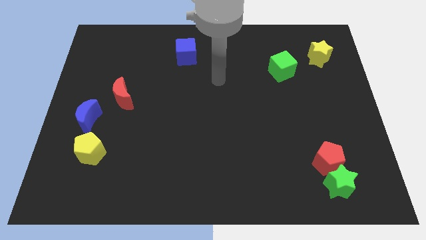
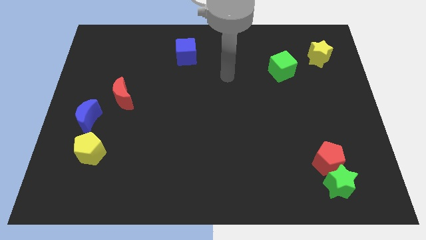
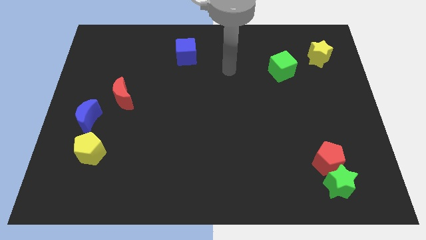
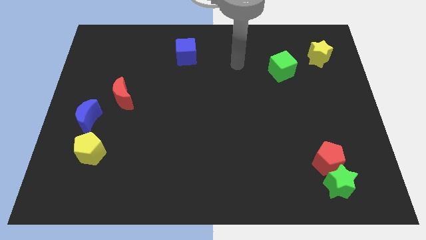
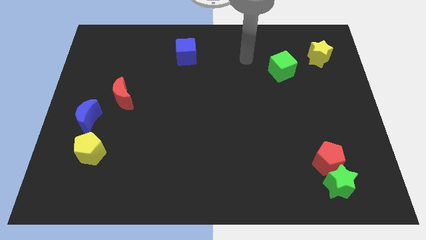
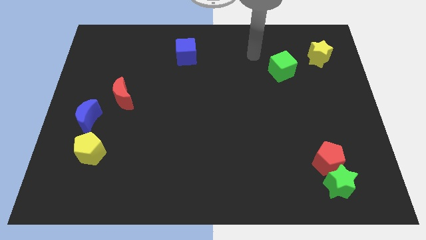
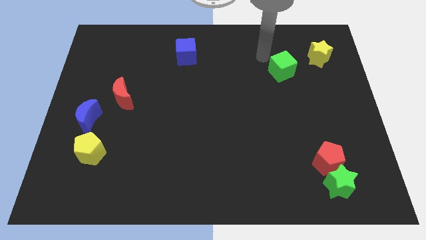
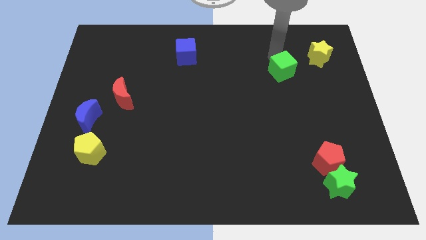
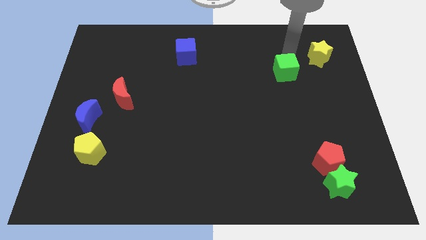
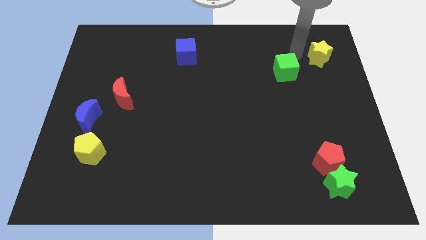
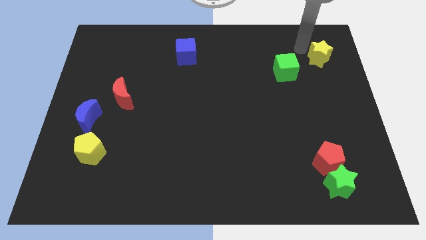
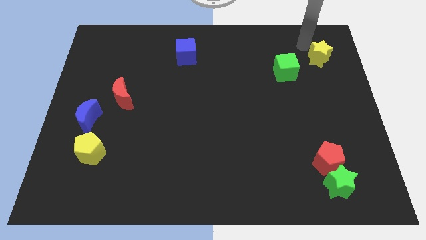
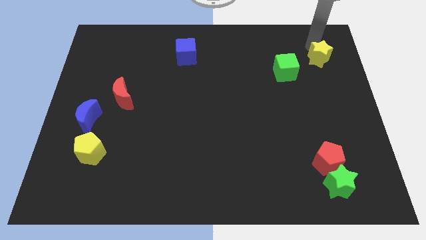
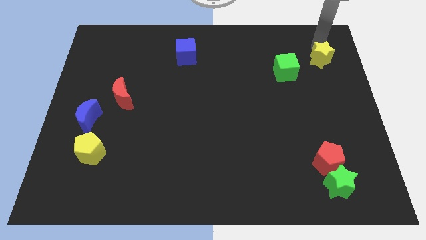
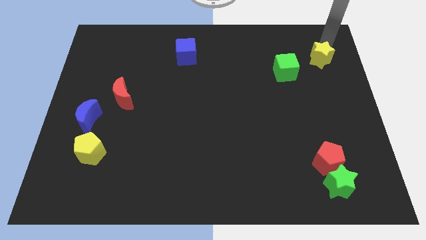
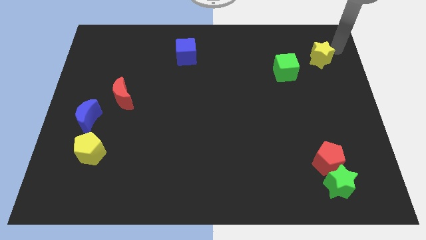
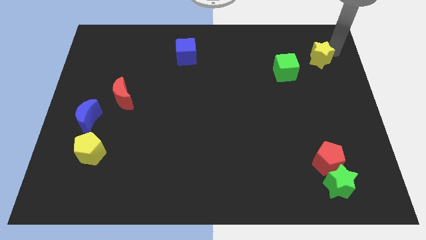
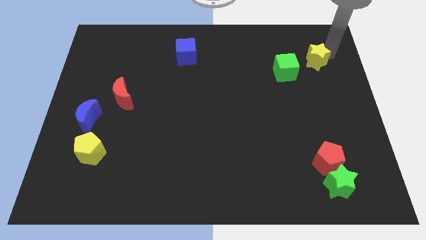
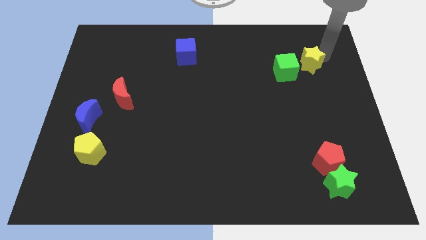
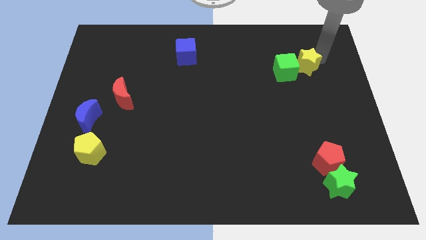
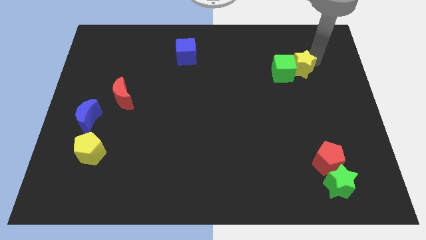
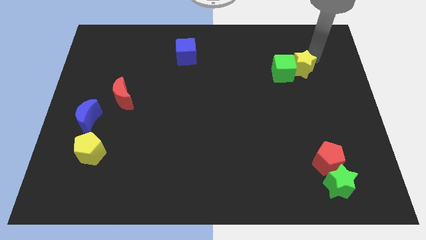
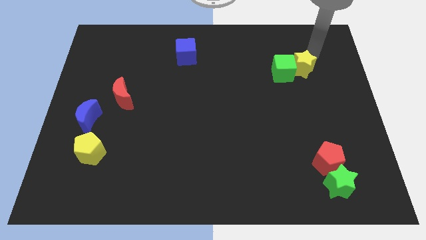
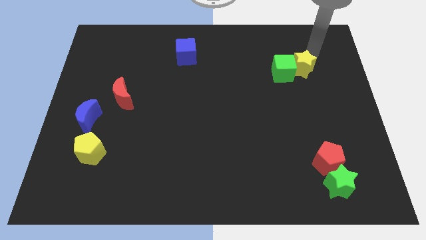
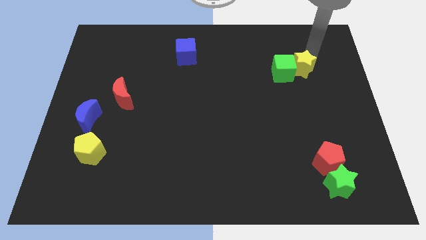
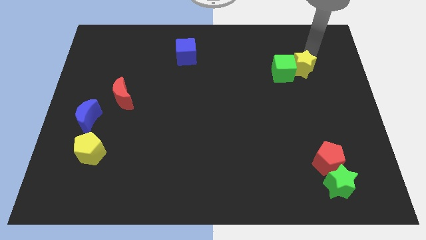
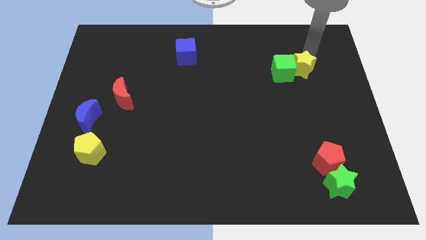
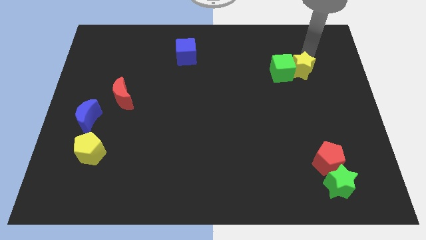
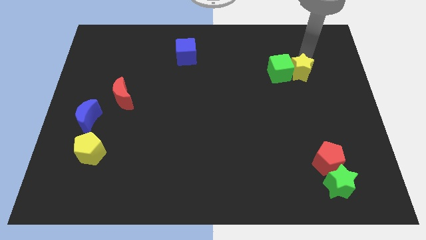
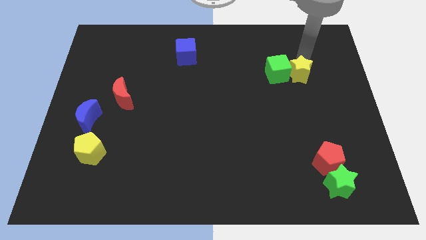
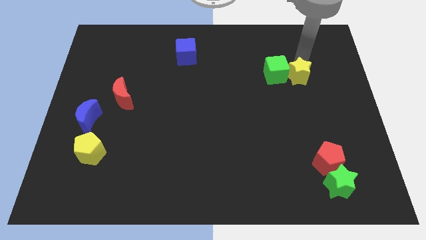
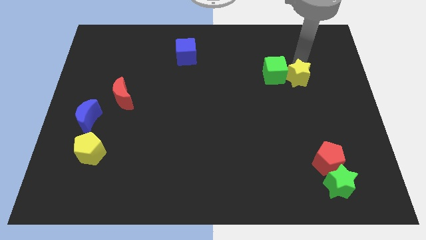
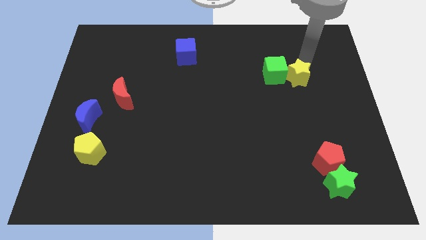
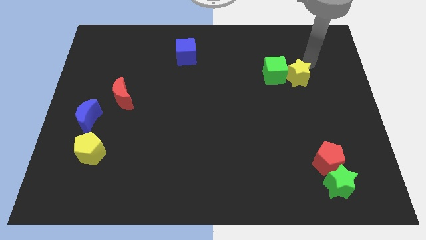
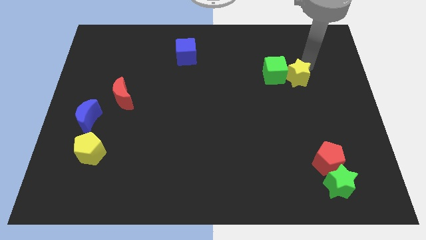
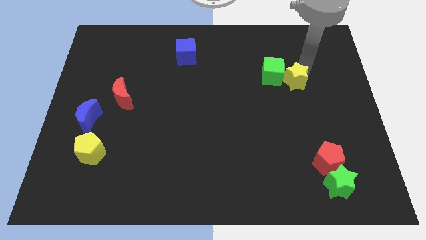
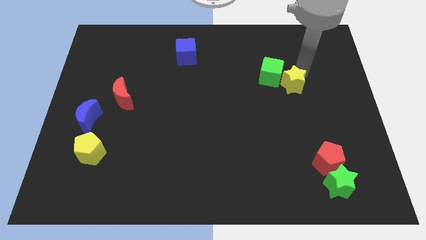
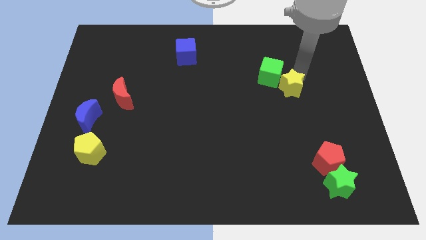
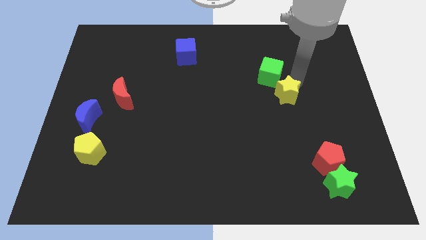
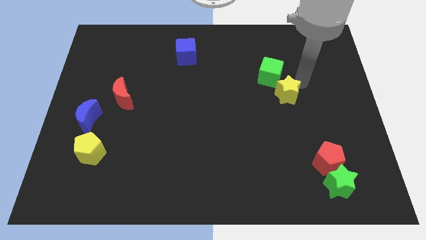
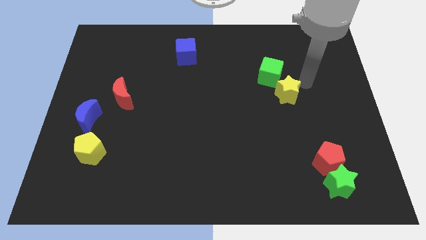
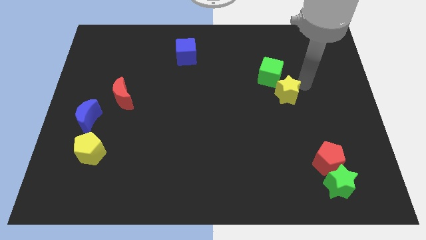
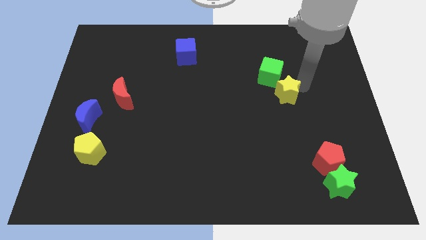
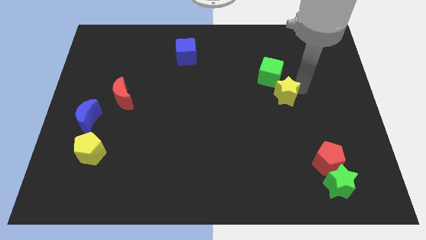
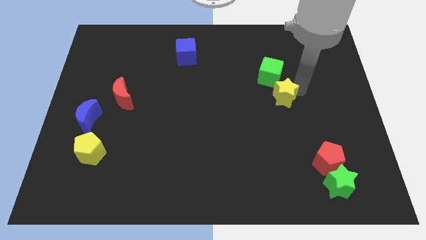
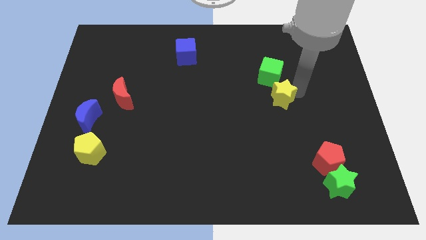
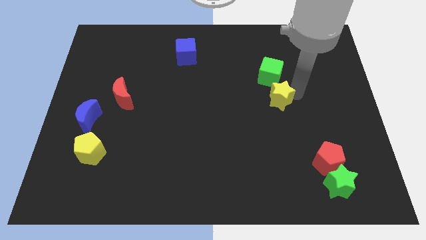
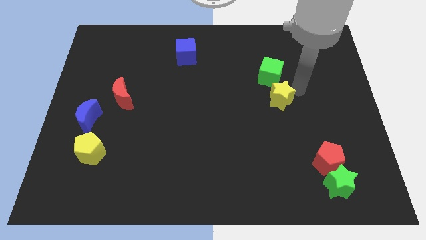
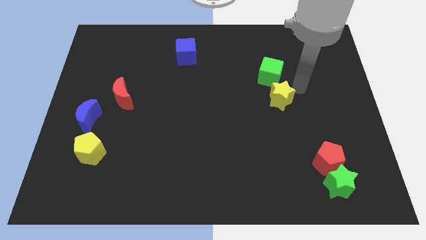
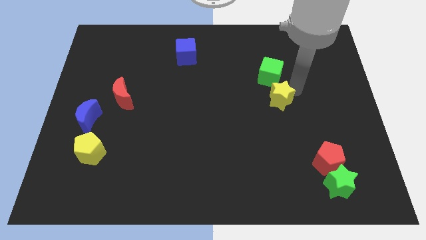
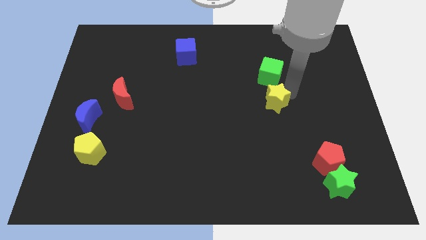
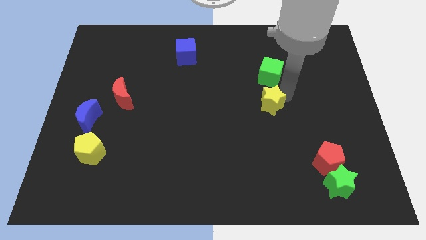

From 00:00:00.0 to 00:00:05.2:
move the yellow star down and left

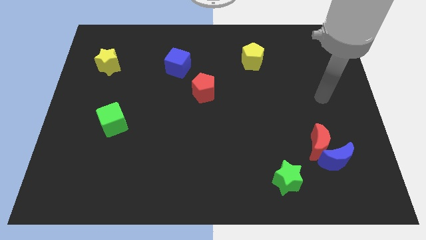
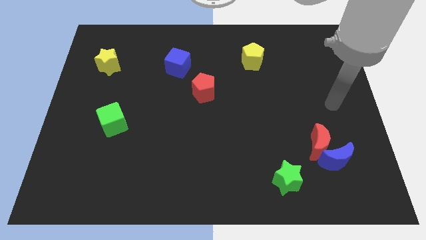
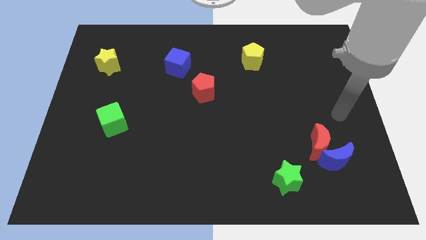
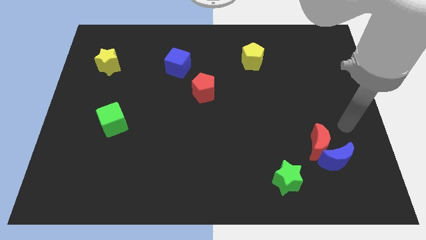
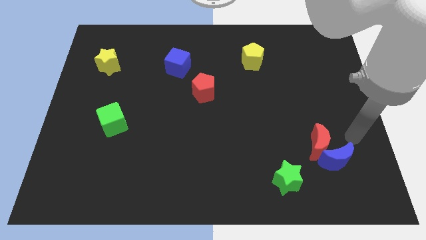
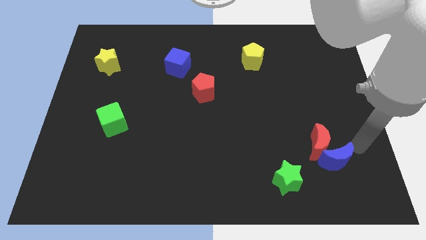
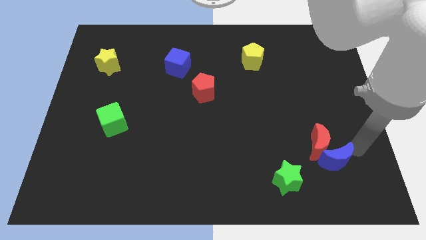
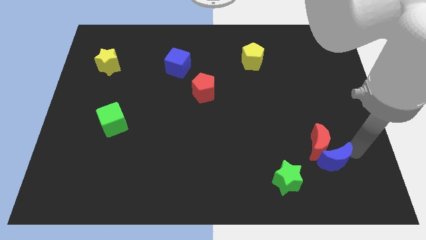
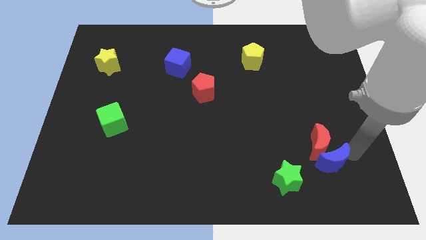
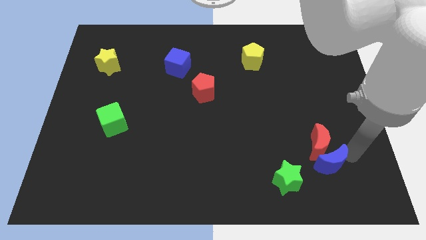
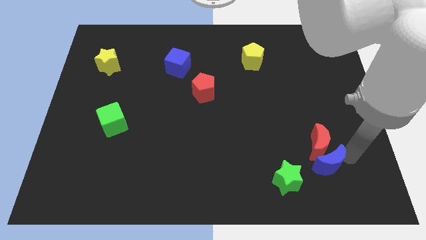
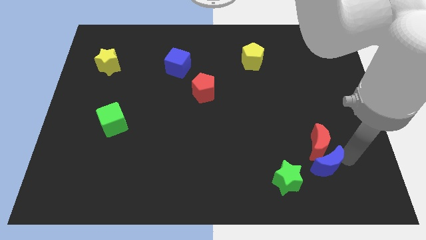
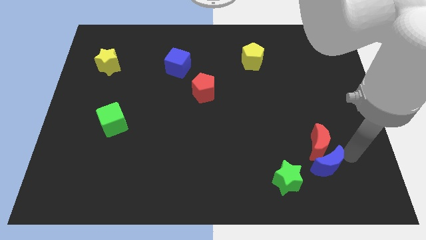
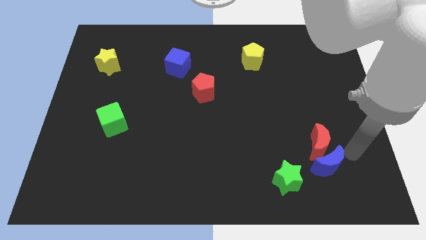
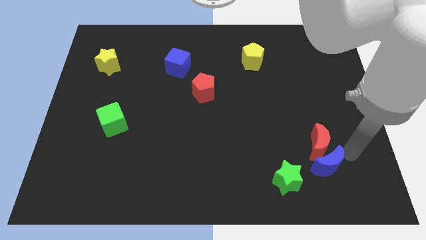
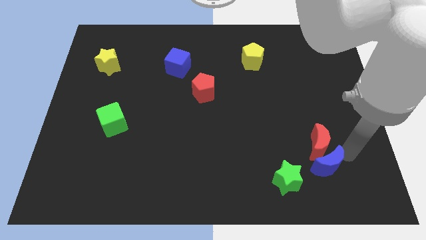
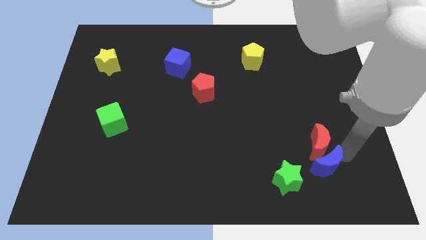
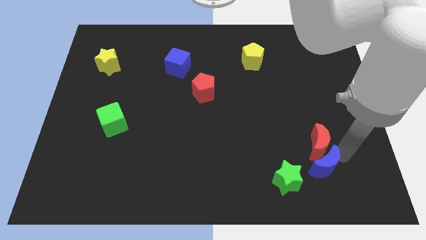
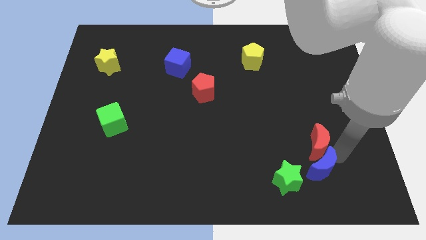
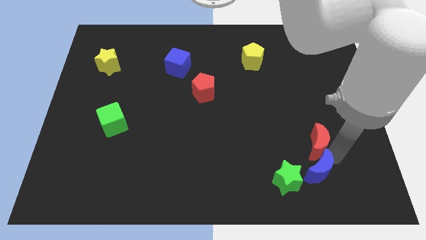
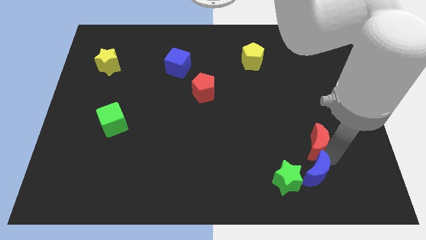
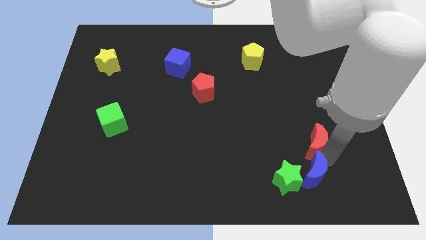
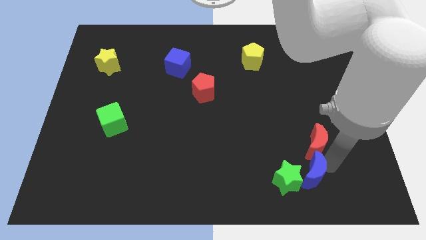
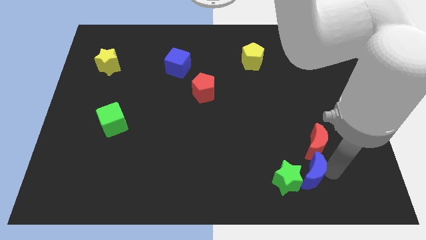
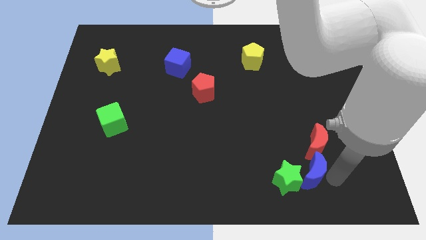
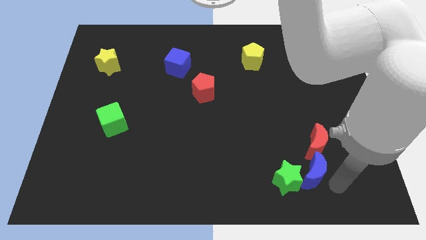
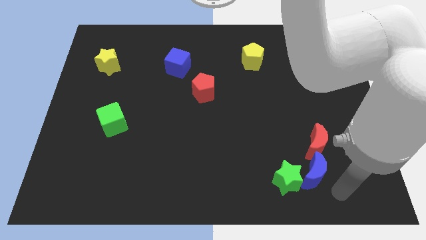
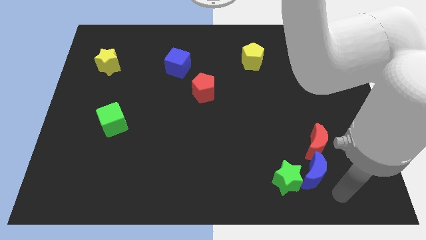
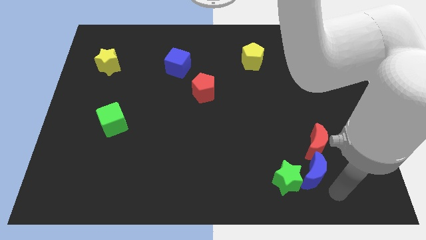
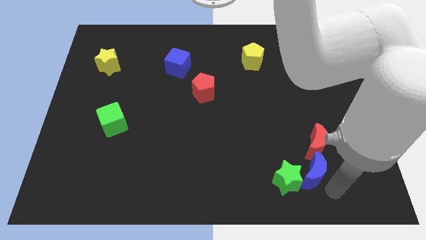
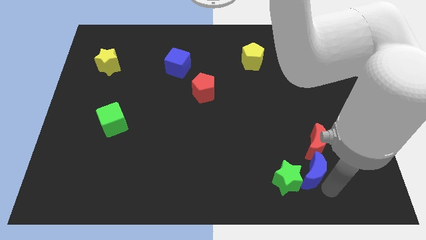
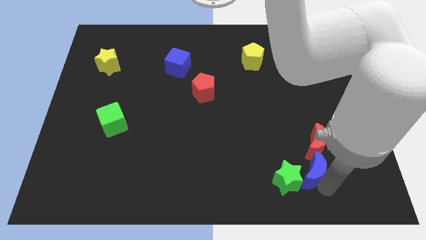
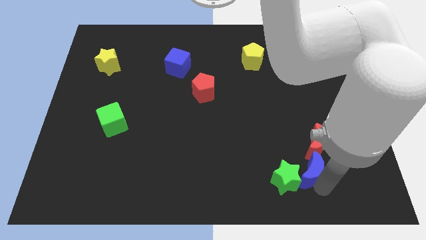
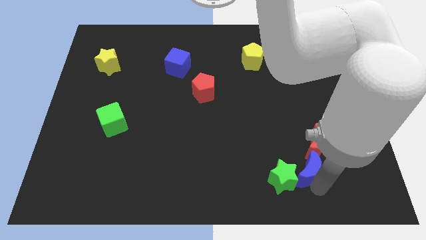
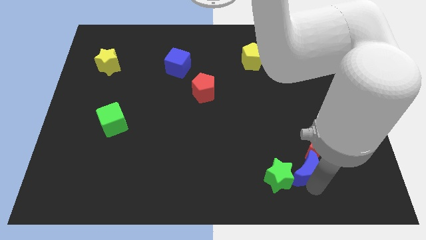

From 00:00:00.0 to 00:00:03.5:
push the blue moon slightly to the left
